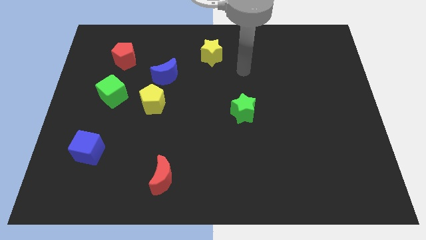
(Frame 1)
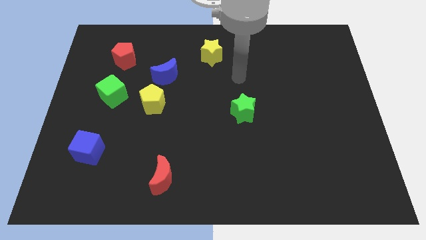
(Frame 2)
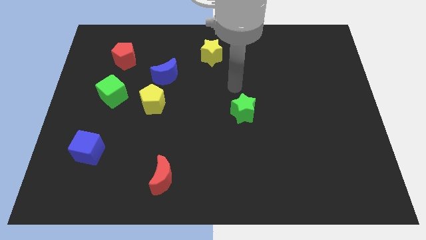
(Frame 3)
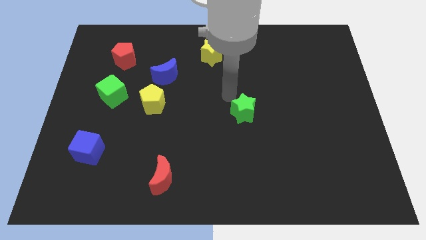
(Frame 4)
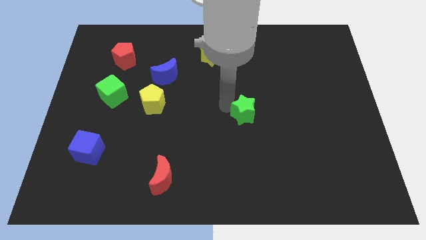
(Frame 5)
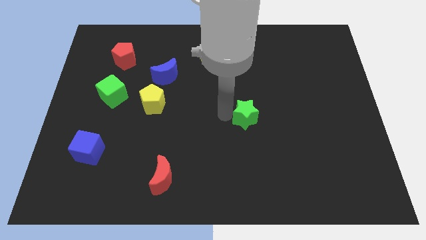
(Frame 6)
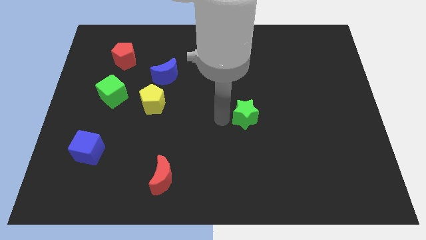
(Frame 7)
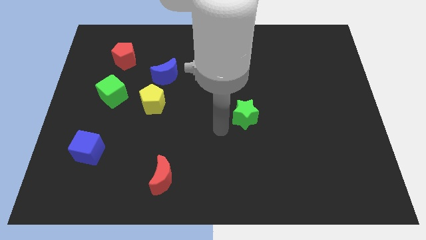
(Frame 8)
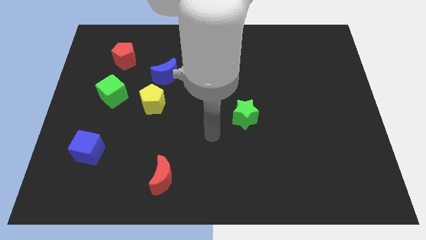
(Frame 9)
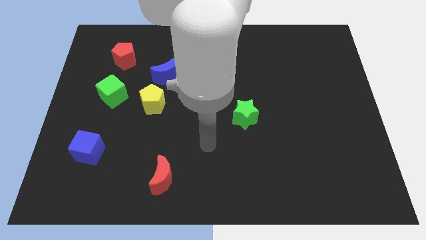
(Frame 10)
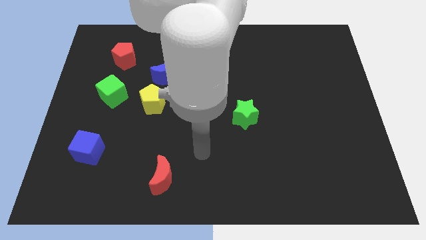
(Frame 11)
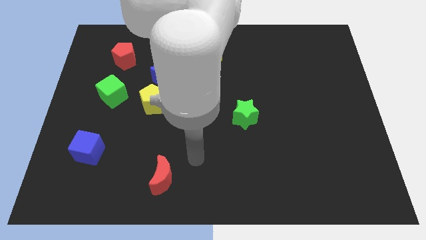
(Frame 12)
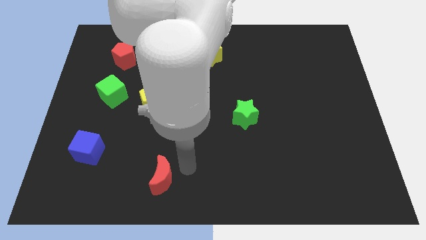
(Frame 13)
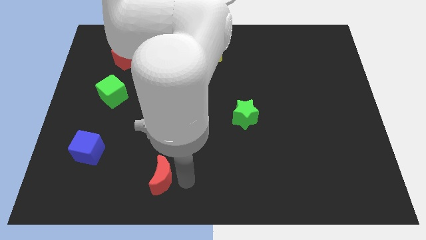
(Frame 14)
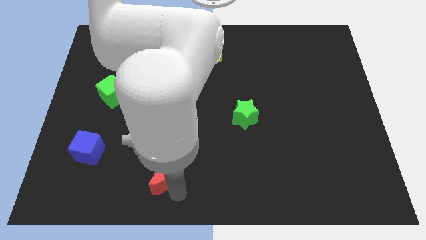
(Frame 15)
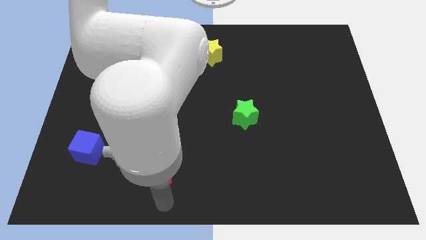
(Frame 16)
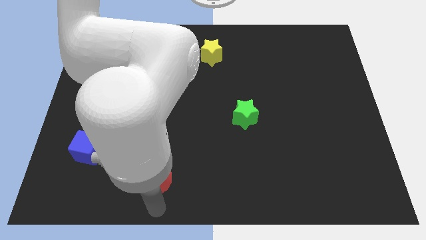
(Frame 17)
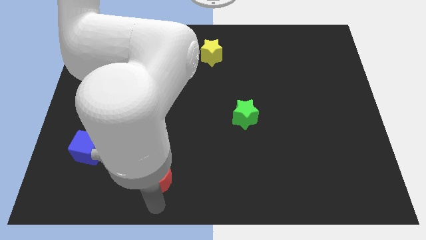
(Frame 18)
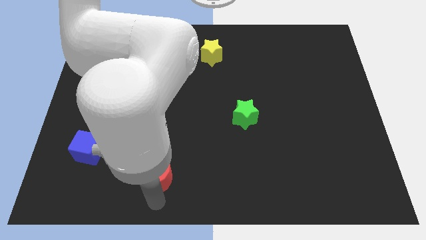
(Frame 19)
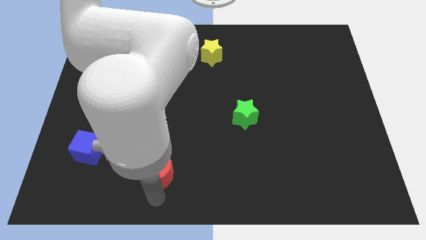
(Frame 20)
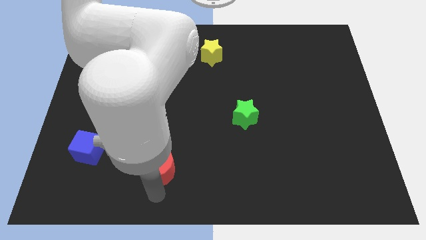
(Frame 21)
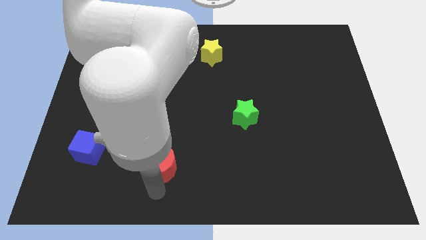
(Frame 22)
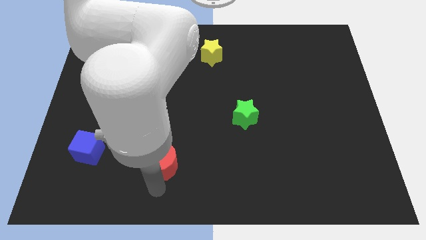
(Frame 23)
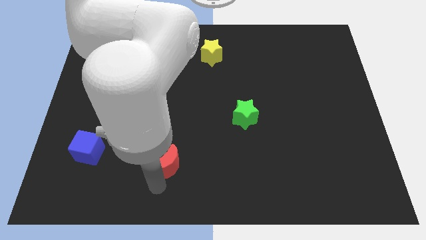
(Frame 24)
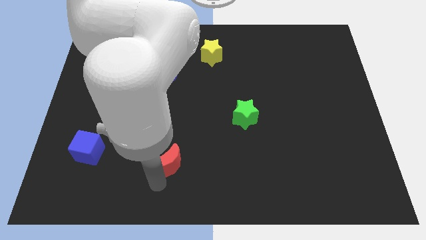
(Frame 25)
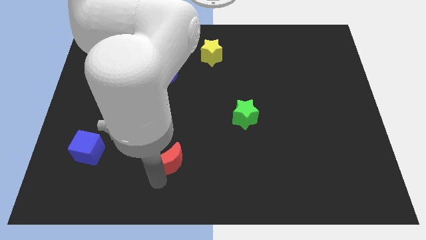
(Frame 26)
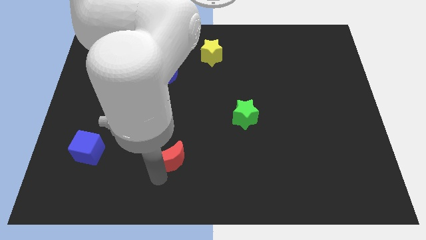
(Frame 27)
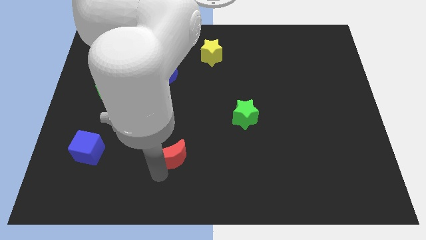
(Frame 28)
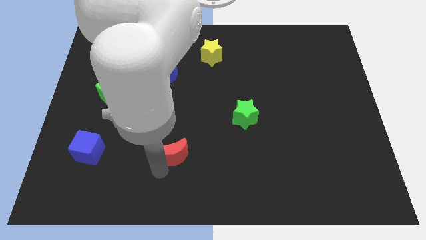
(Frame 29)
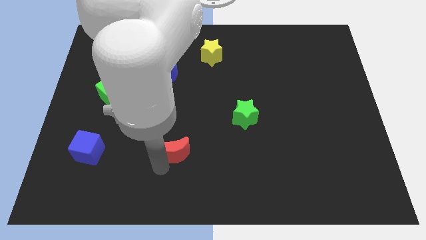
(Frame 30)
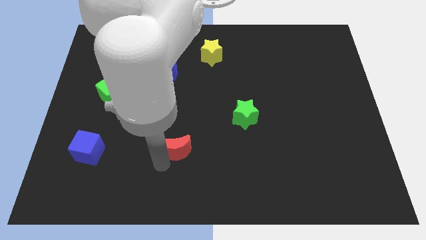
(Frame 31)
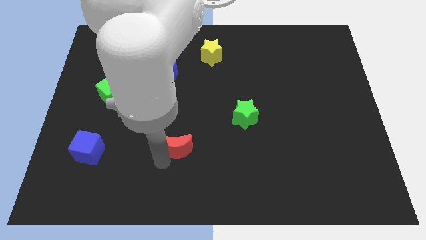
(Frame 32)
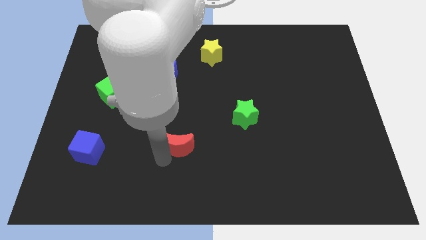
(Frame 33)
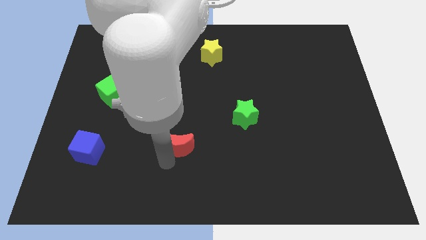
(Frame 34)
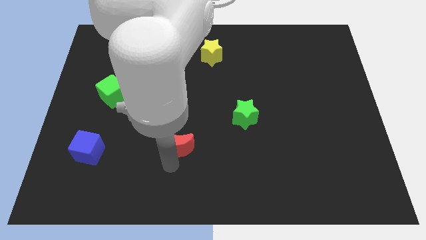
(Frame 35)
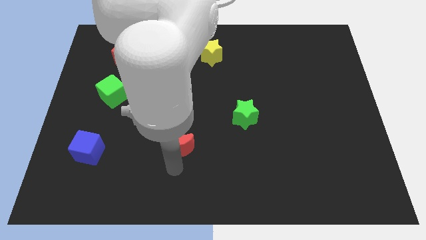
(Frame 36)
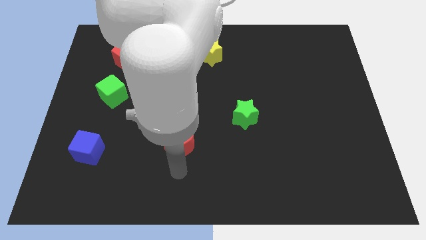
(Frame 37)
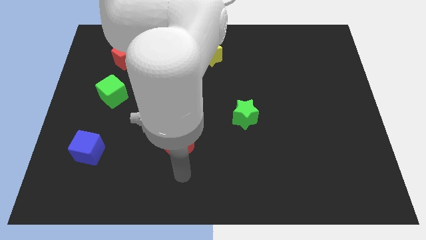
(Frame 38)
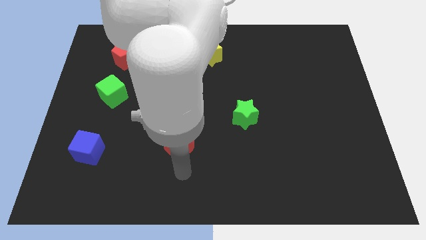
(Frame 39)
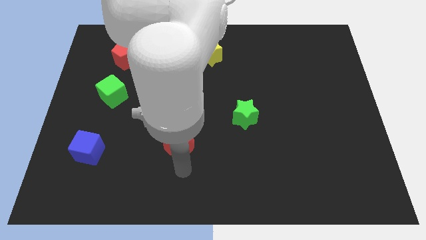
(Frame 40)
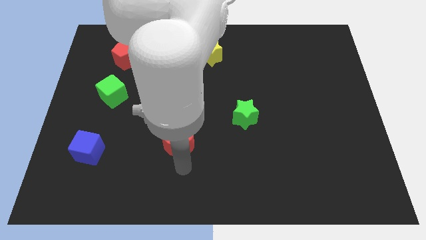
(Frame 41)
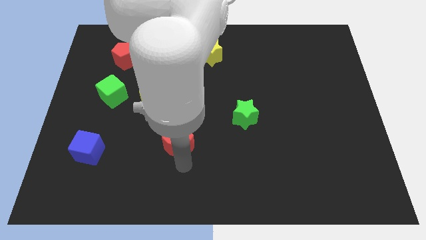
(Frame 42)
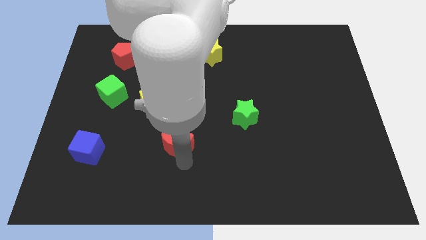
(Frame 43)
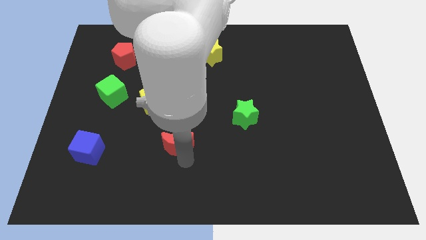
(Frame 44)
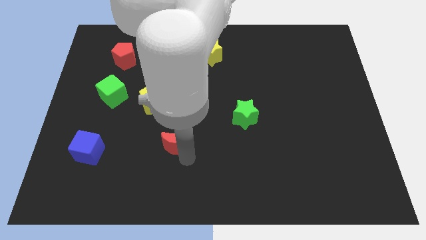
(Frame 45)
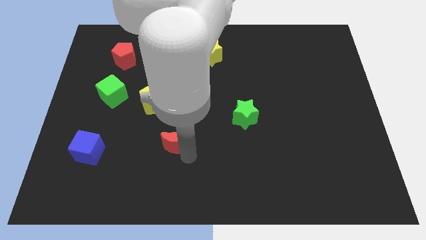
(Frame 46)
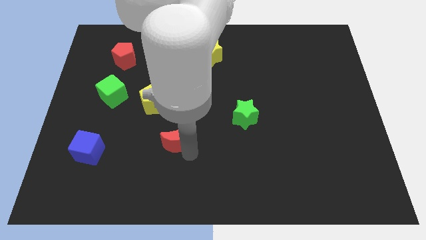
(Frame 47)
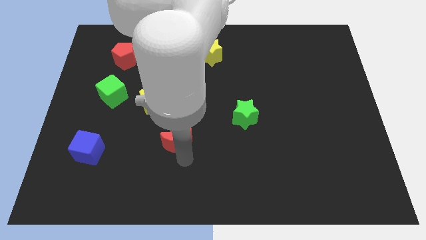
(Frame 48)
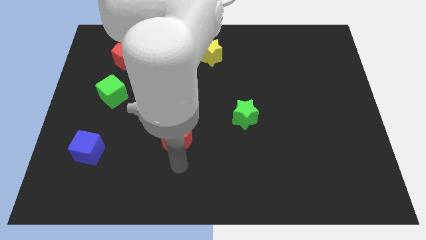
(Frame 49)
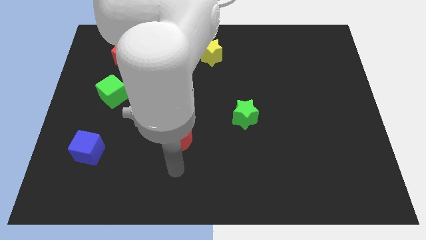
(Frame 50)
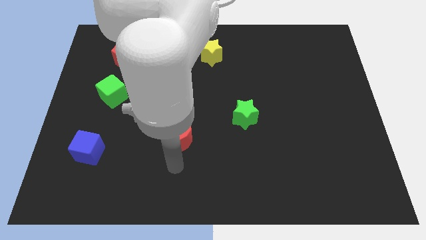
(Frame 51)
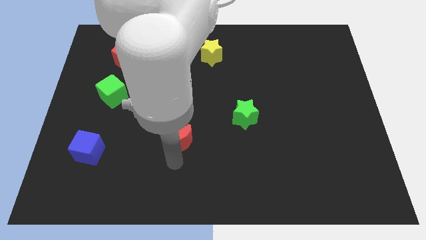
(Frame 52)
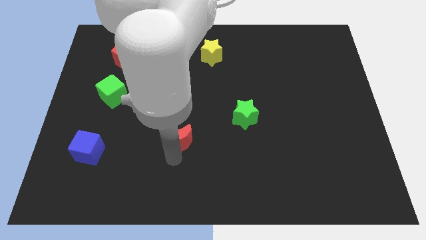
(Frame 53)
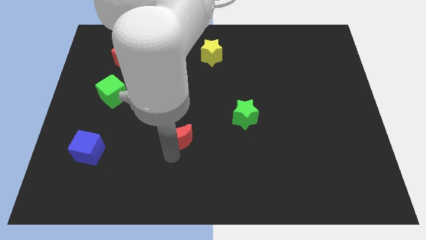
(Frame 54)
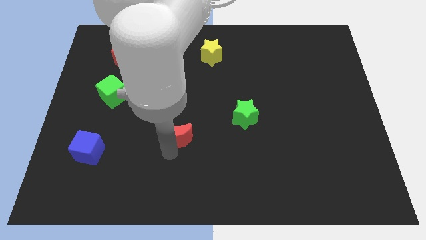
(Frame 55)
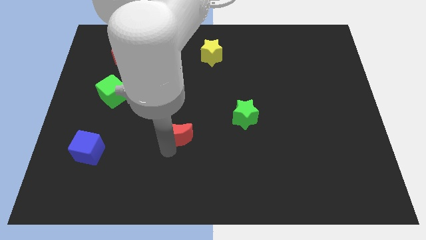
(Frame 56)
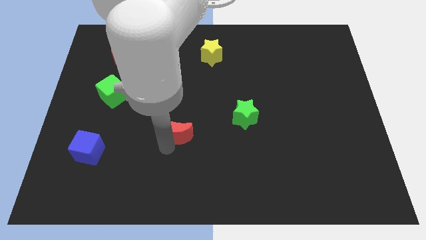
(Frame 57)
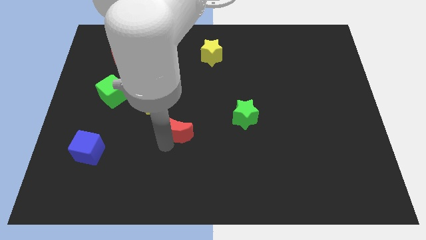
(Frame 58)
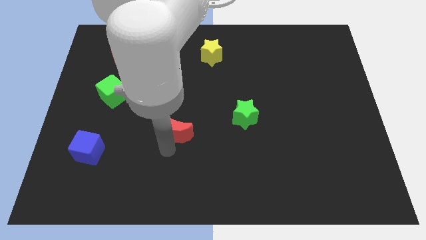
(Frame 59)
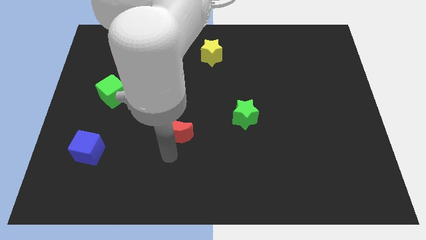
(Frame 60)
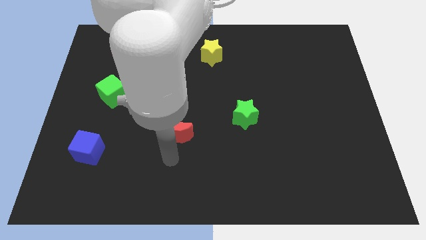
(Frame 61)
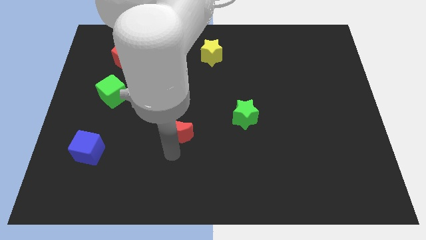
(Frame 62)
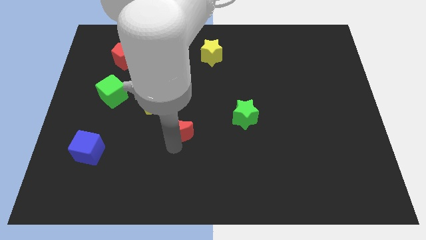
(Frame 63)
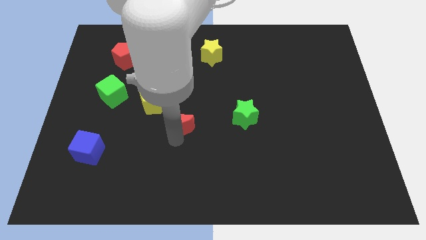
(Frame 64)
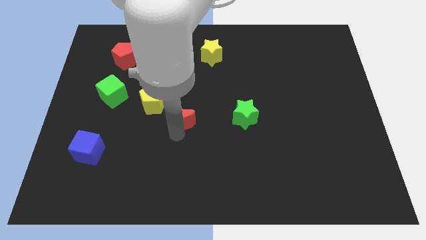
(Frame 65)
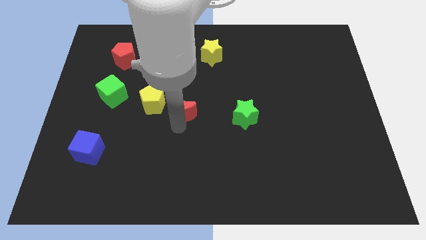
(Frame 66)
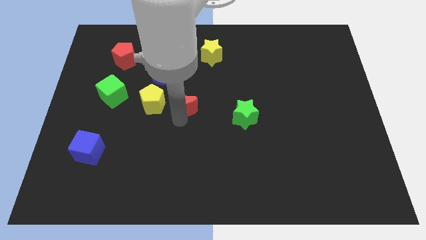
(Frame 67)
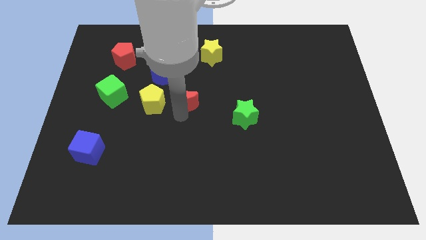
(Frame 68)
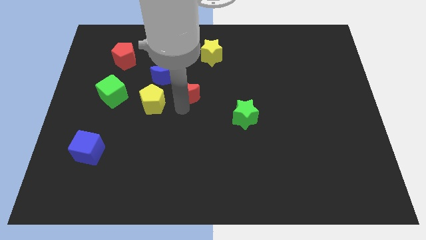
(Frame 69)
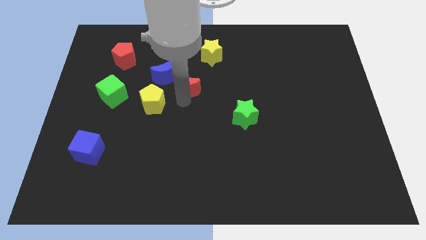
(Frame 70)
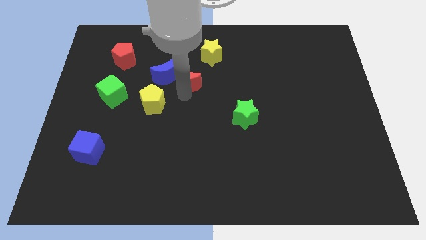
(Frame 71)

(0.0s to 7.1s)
slide the red moon to the bottom left of the yellow star

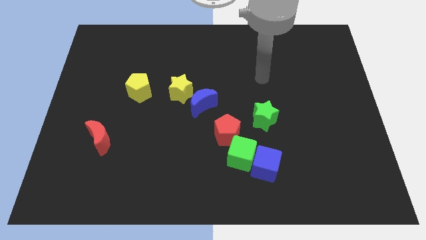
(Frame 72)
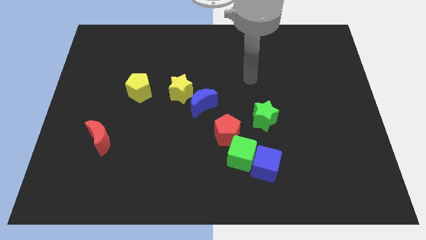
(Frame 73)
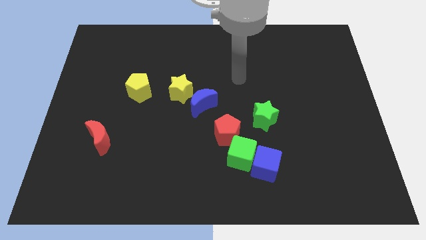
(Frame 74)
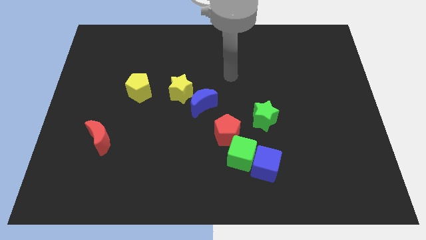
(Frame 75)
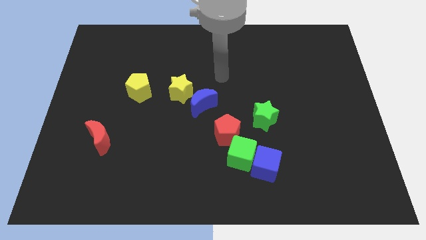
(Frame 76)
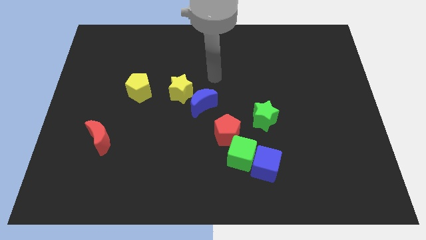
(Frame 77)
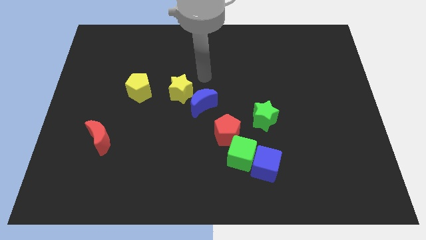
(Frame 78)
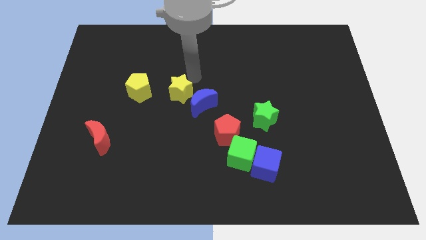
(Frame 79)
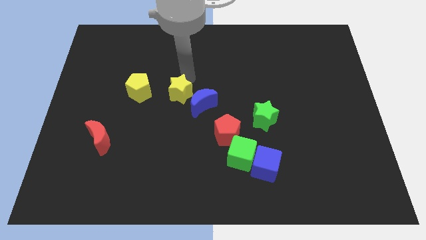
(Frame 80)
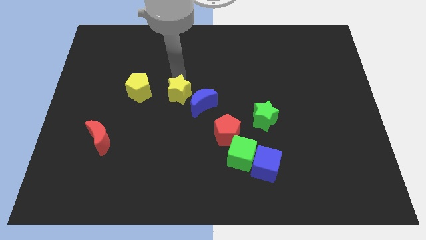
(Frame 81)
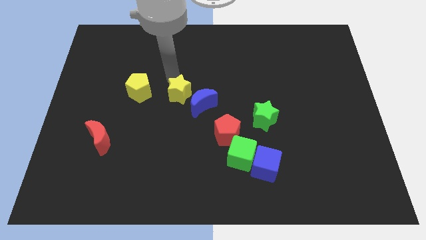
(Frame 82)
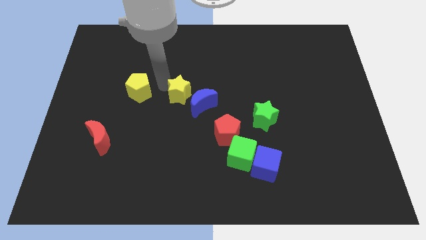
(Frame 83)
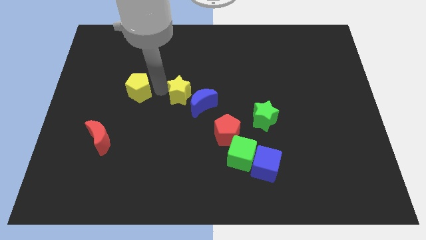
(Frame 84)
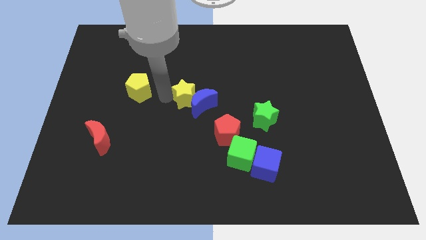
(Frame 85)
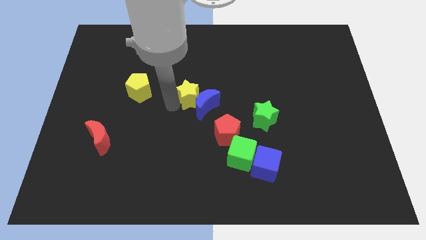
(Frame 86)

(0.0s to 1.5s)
slide the blue moon above the red pentagon
